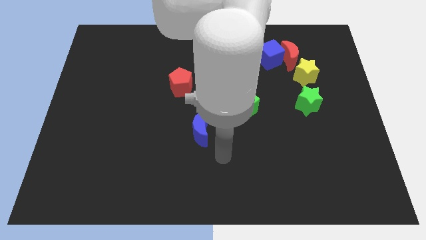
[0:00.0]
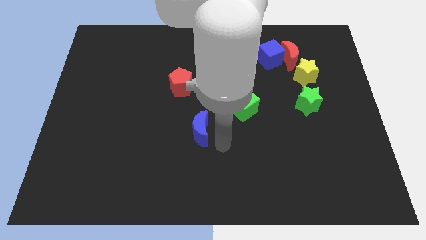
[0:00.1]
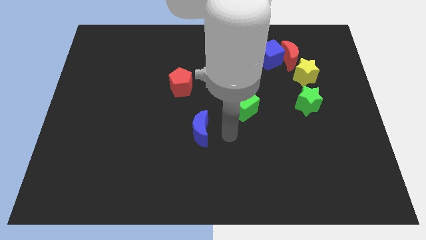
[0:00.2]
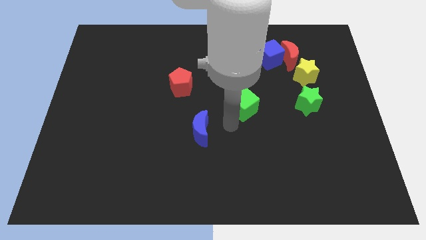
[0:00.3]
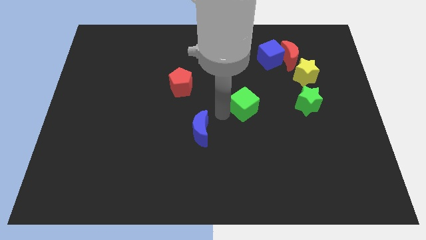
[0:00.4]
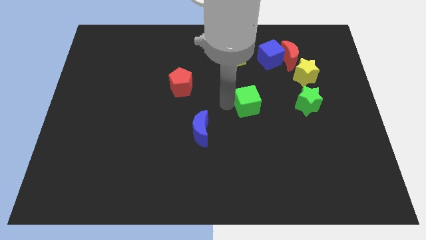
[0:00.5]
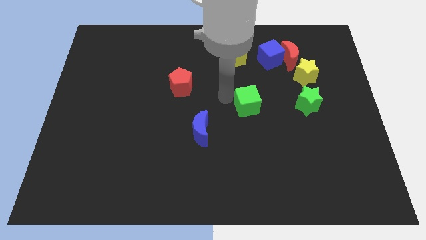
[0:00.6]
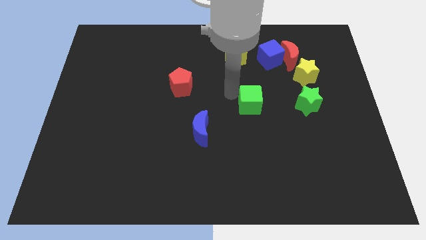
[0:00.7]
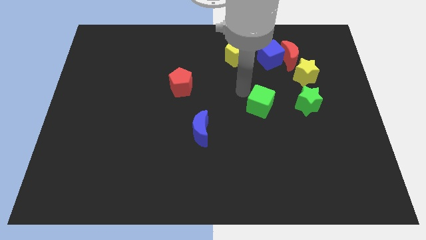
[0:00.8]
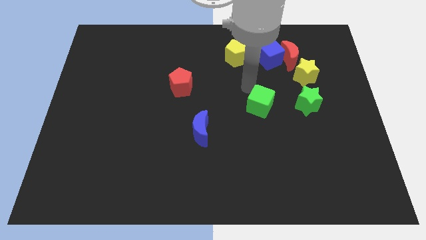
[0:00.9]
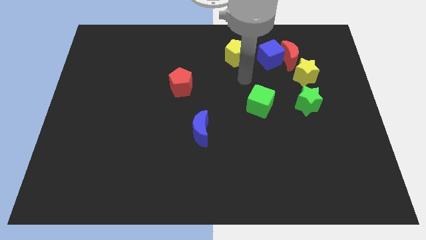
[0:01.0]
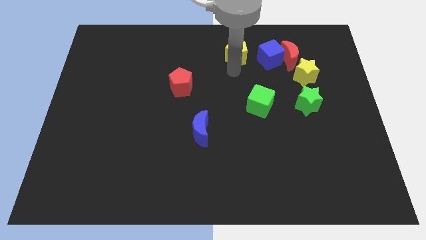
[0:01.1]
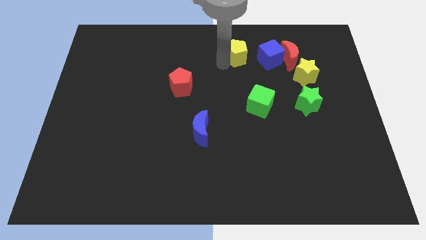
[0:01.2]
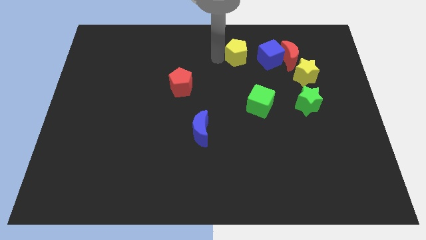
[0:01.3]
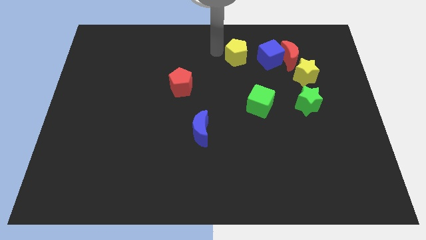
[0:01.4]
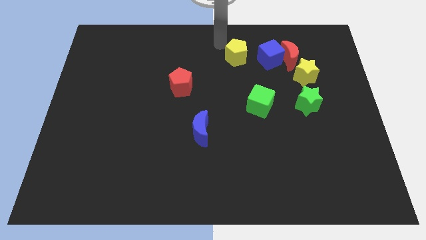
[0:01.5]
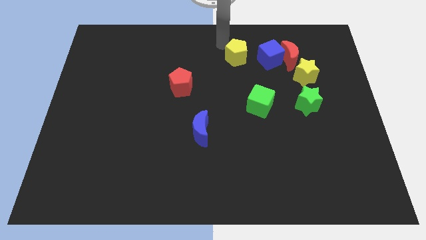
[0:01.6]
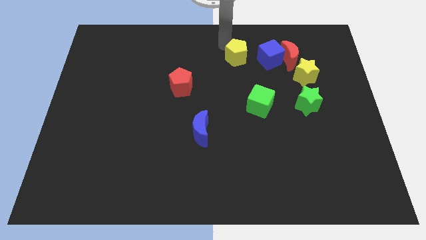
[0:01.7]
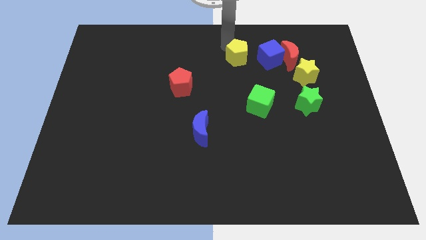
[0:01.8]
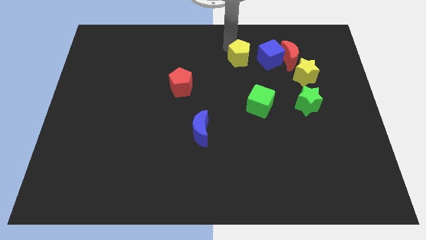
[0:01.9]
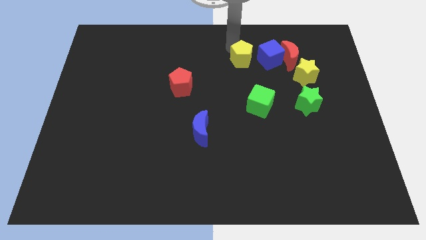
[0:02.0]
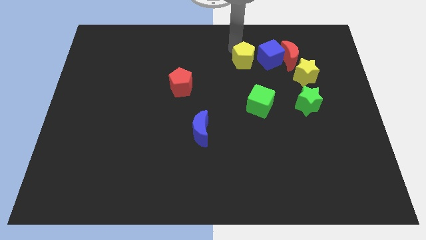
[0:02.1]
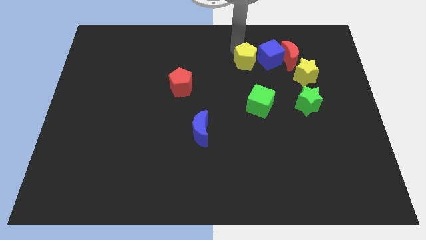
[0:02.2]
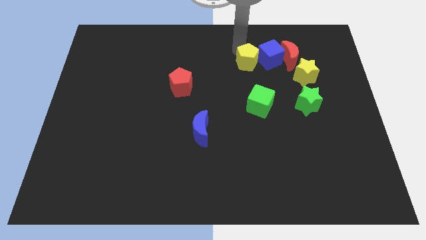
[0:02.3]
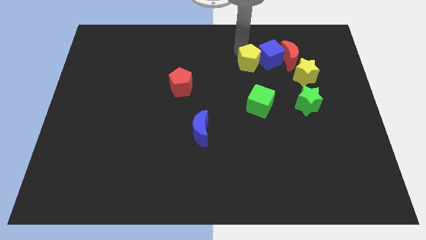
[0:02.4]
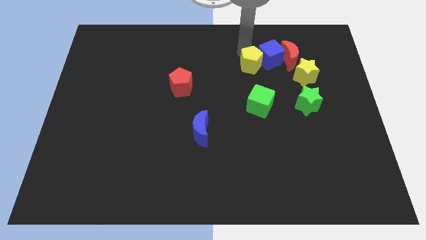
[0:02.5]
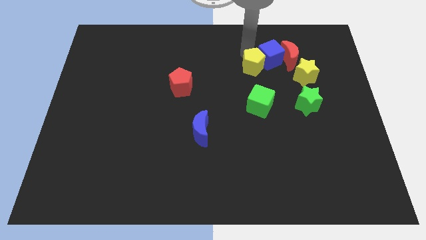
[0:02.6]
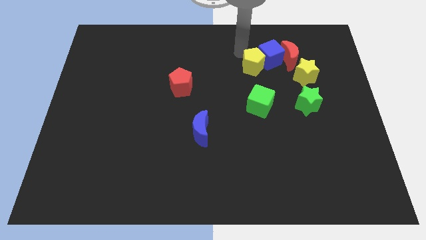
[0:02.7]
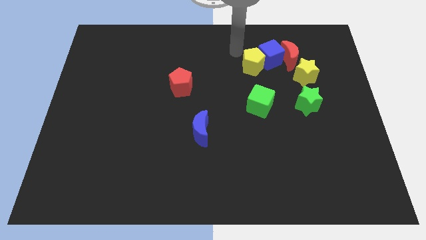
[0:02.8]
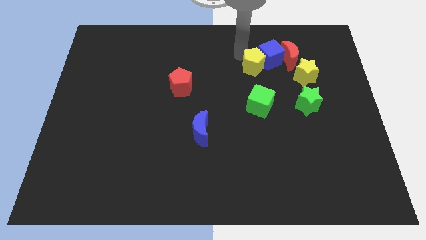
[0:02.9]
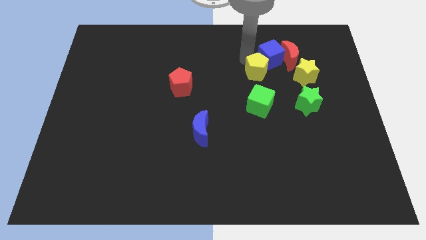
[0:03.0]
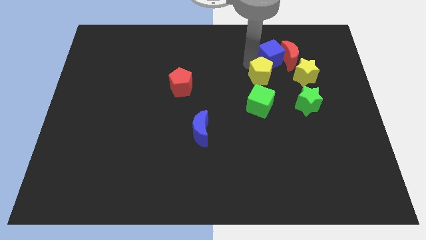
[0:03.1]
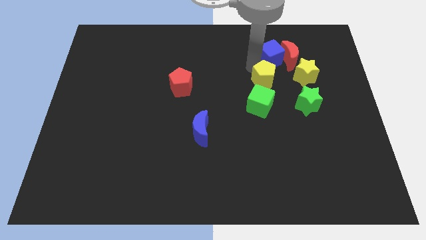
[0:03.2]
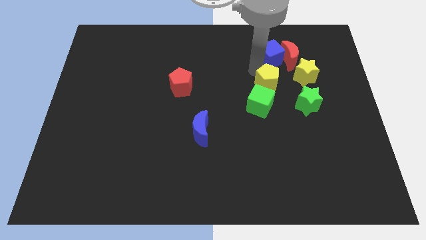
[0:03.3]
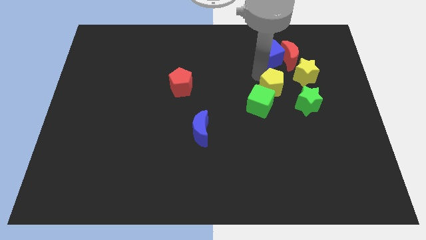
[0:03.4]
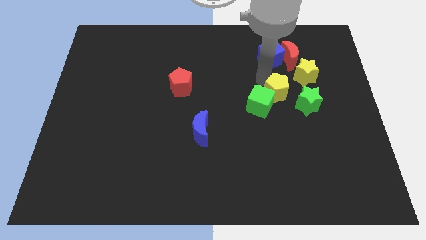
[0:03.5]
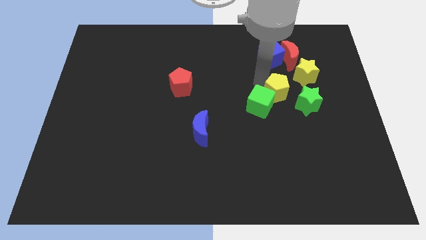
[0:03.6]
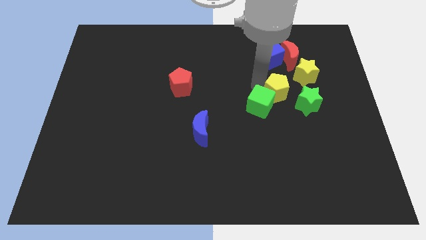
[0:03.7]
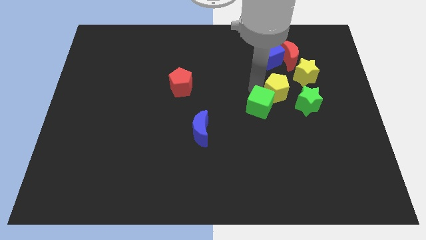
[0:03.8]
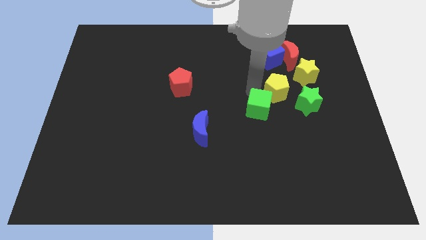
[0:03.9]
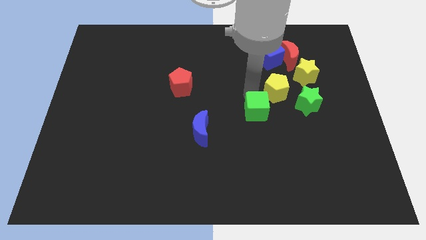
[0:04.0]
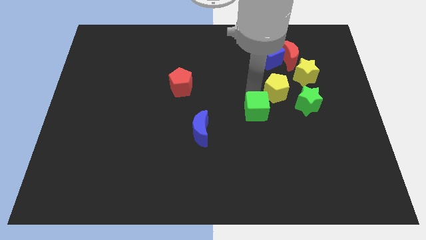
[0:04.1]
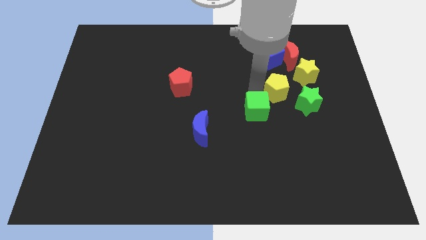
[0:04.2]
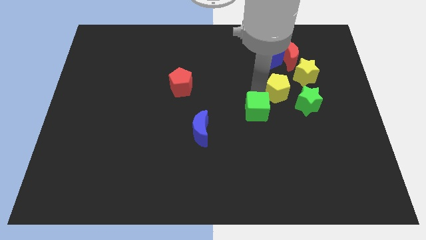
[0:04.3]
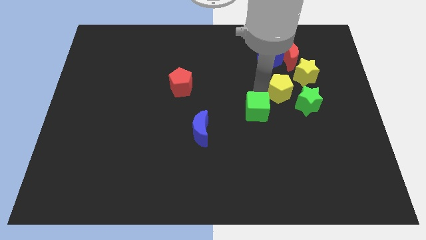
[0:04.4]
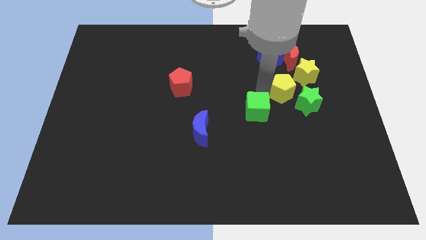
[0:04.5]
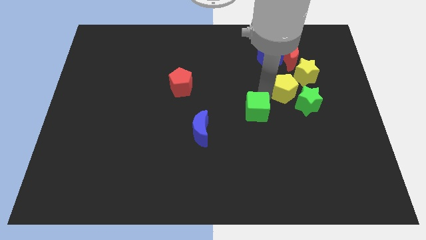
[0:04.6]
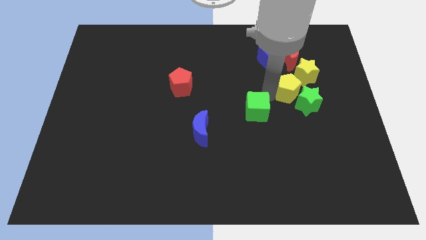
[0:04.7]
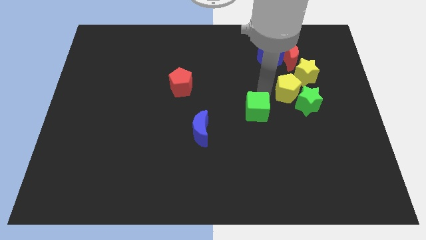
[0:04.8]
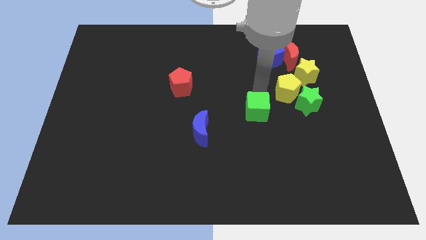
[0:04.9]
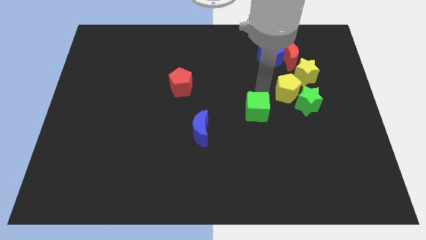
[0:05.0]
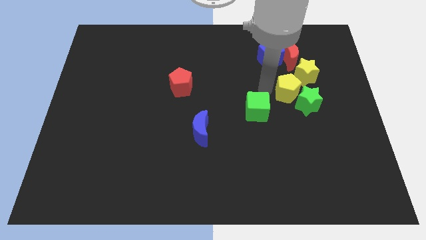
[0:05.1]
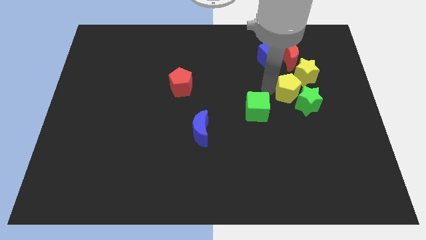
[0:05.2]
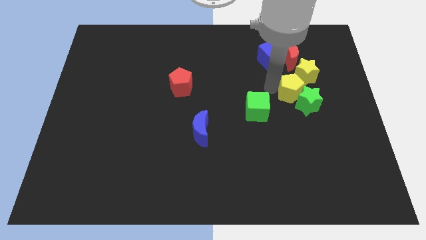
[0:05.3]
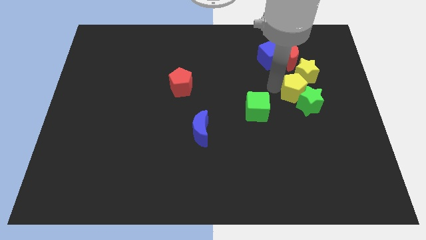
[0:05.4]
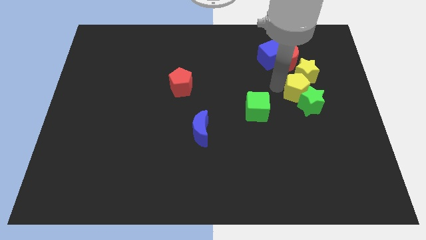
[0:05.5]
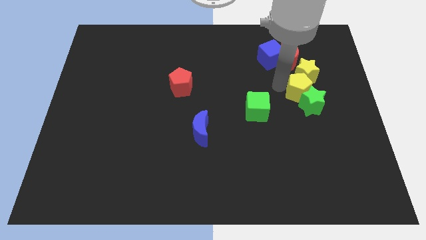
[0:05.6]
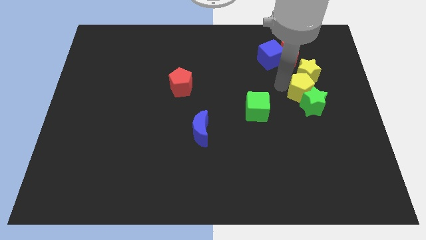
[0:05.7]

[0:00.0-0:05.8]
slide the yellow pentagon a bit to the right

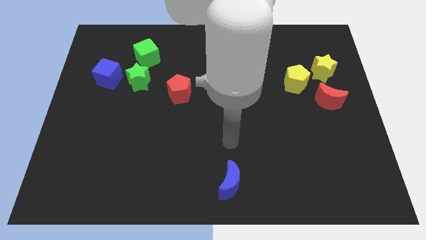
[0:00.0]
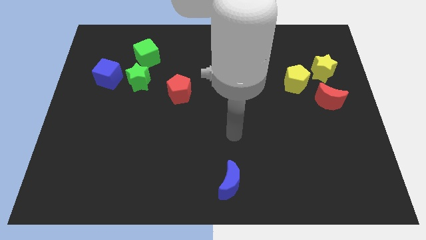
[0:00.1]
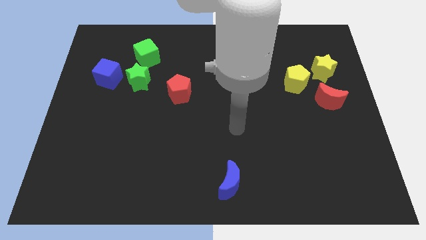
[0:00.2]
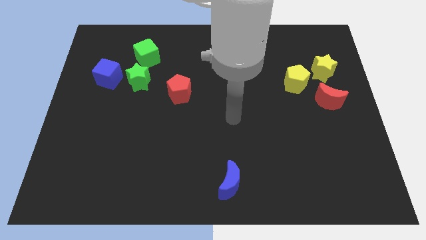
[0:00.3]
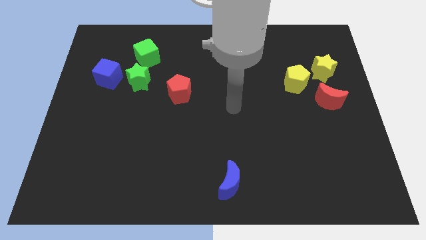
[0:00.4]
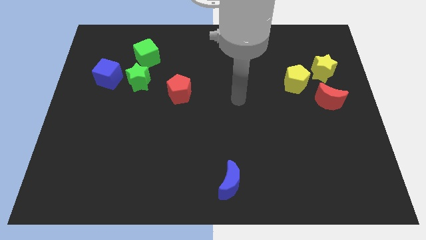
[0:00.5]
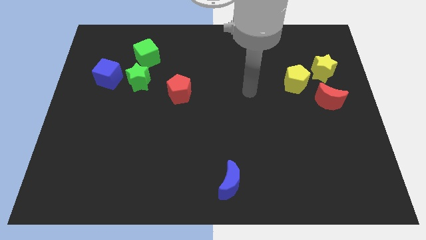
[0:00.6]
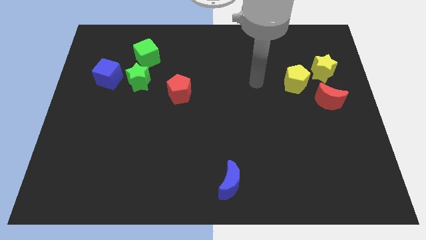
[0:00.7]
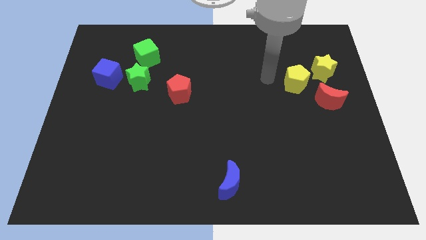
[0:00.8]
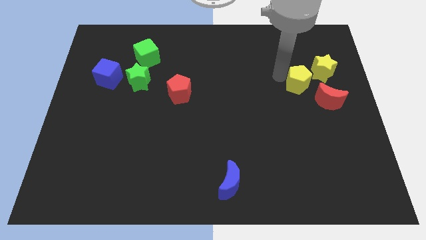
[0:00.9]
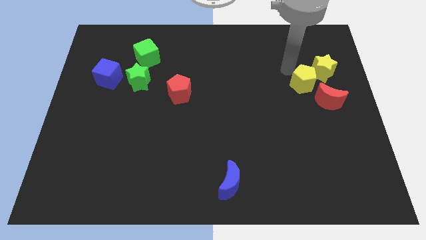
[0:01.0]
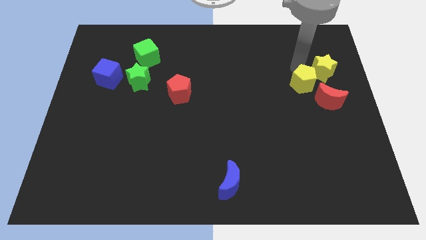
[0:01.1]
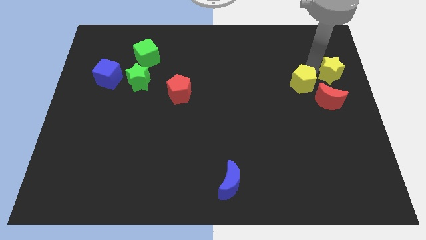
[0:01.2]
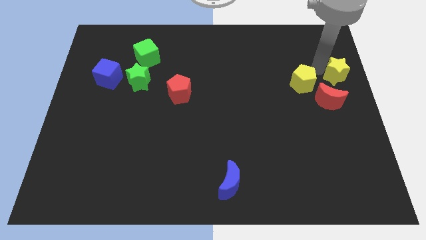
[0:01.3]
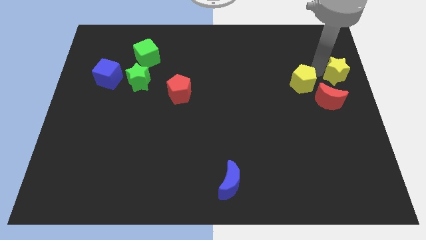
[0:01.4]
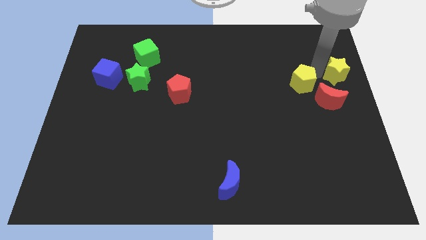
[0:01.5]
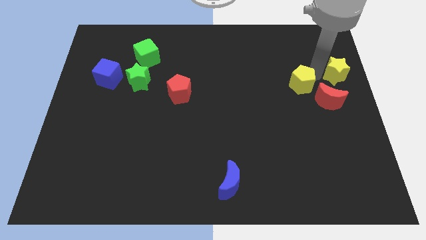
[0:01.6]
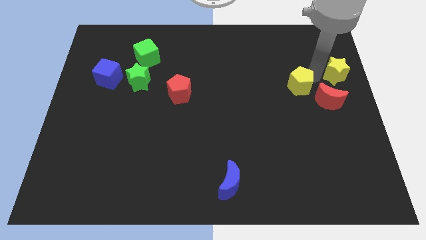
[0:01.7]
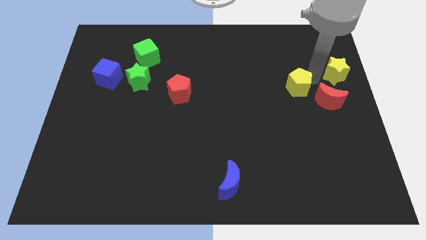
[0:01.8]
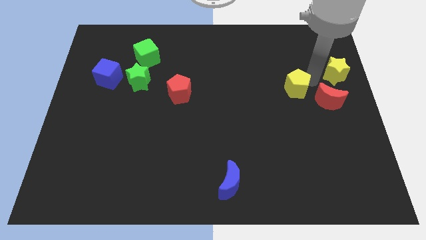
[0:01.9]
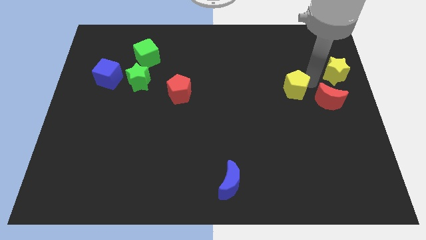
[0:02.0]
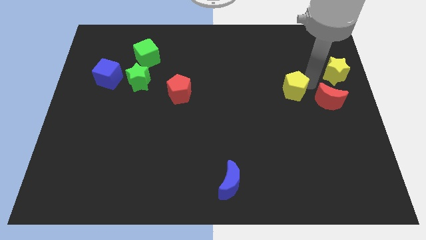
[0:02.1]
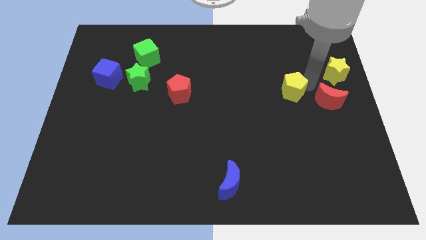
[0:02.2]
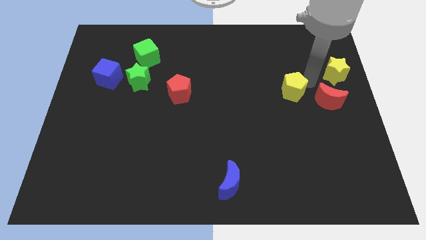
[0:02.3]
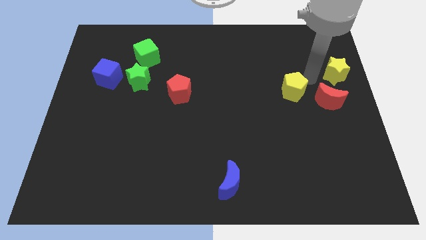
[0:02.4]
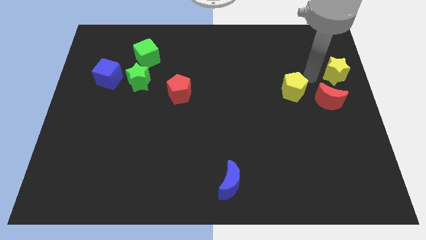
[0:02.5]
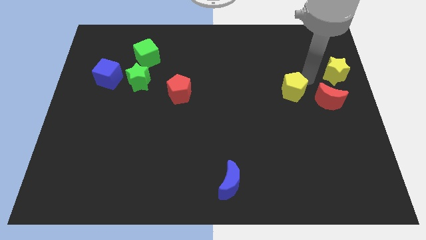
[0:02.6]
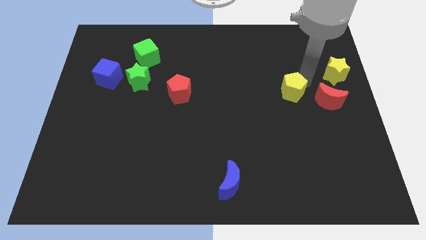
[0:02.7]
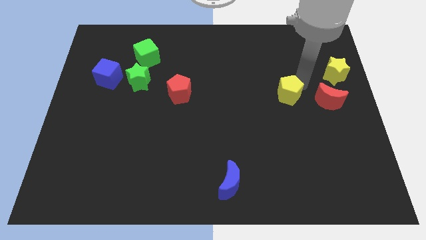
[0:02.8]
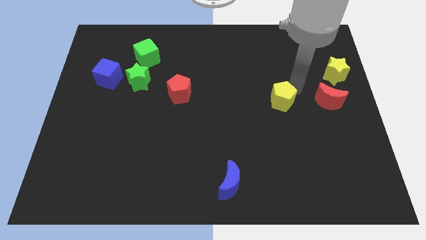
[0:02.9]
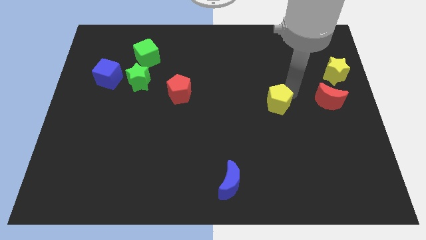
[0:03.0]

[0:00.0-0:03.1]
move the yellow pentagon downwards and to the left slightly
